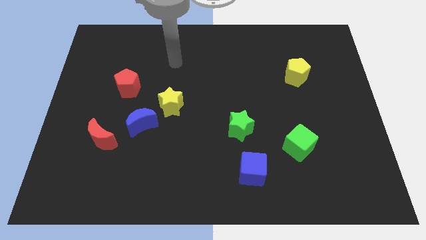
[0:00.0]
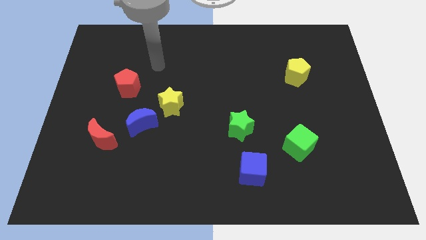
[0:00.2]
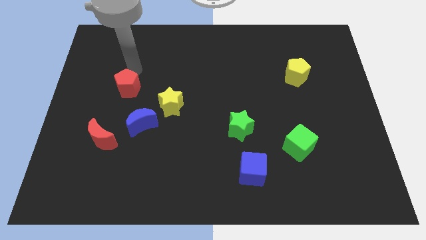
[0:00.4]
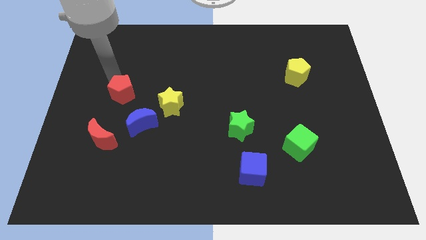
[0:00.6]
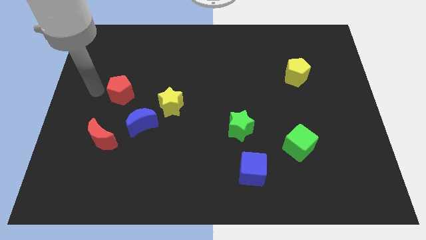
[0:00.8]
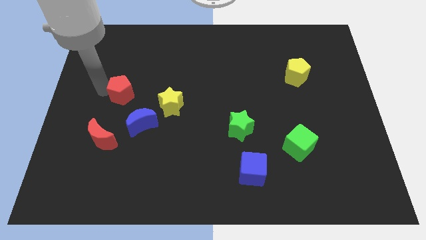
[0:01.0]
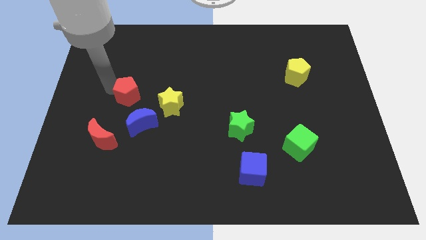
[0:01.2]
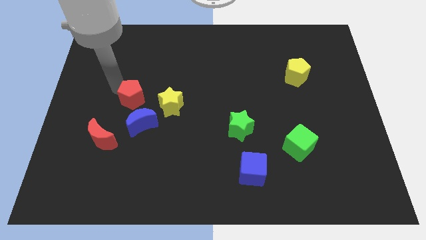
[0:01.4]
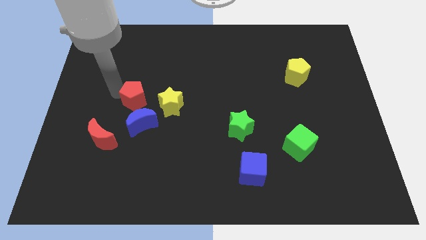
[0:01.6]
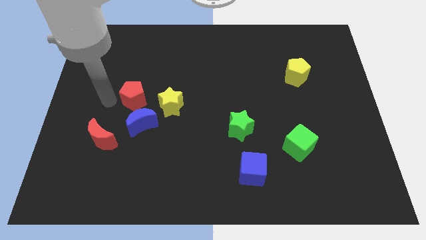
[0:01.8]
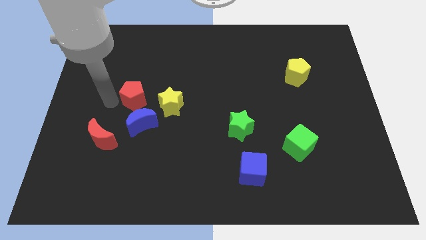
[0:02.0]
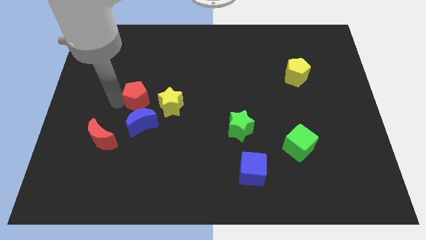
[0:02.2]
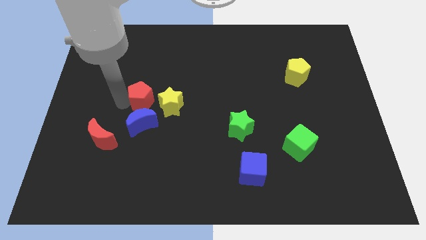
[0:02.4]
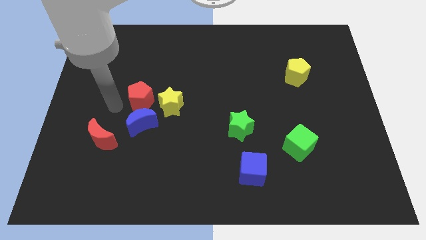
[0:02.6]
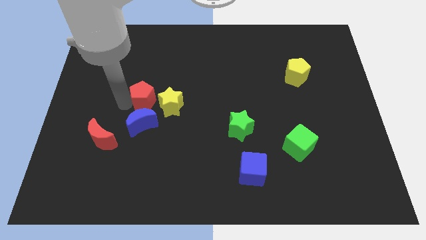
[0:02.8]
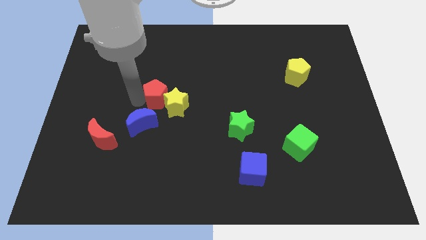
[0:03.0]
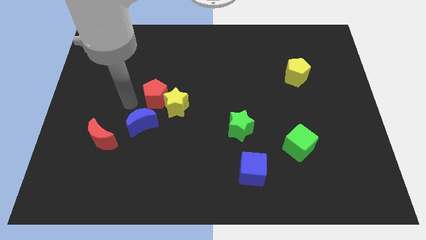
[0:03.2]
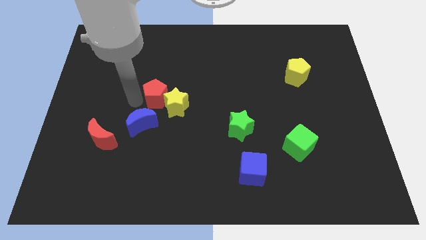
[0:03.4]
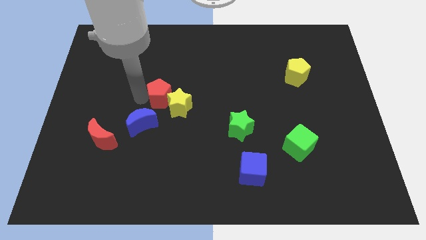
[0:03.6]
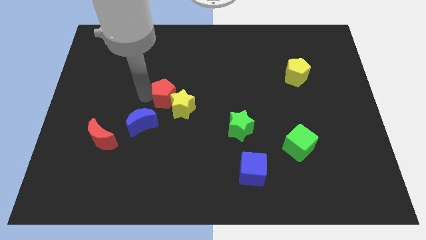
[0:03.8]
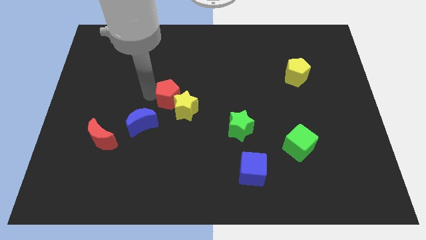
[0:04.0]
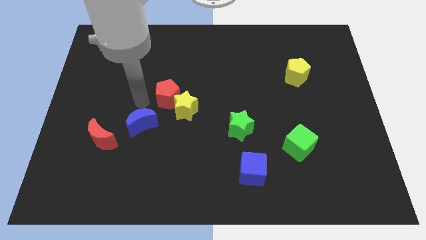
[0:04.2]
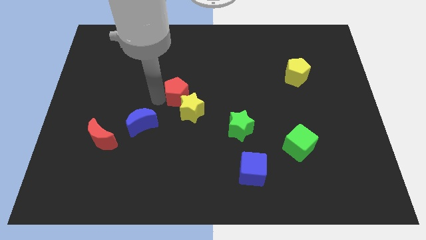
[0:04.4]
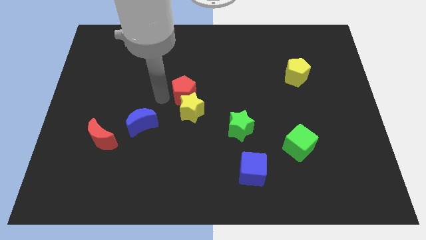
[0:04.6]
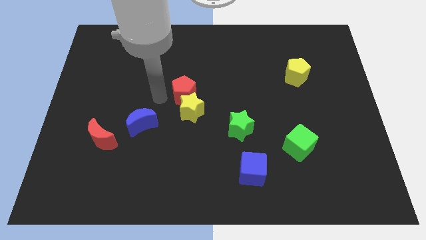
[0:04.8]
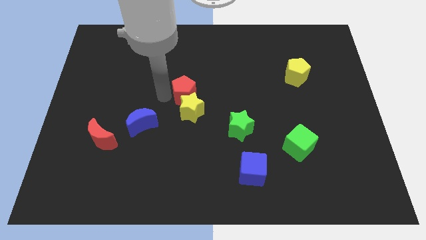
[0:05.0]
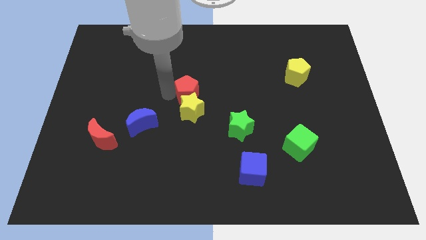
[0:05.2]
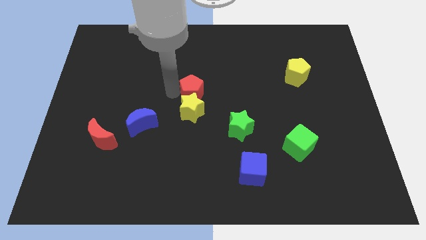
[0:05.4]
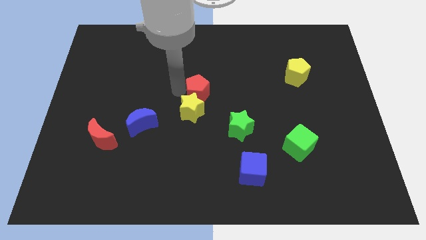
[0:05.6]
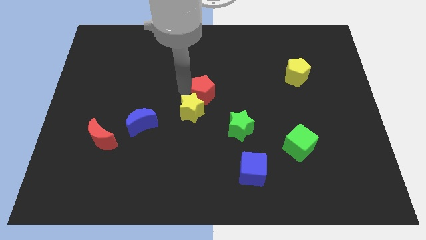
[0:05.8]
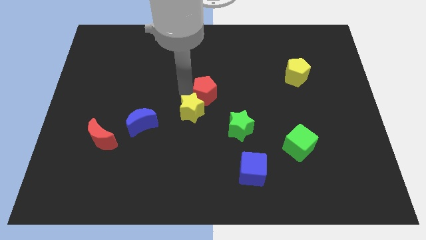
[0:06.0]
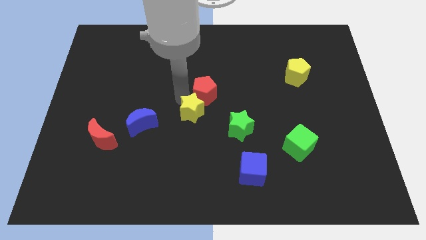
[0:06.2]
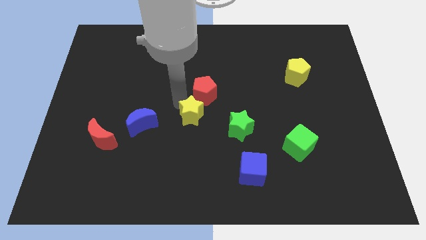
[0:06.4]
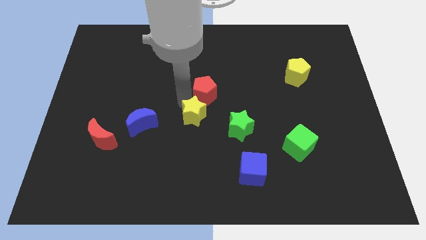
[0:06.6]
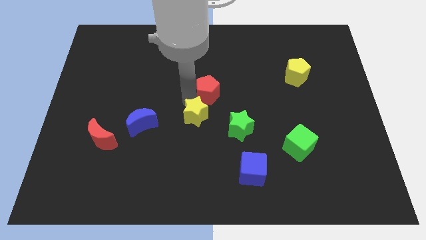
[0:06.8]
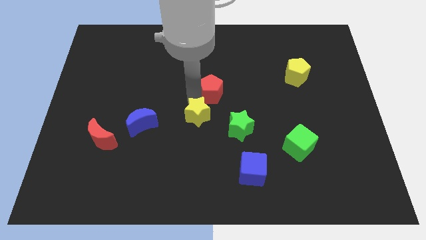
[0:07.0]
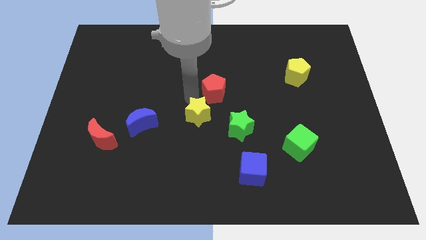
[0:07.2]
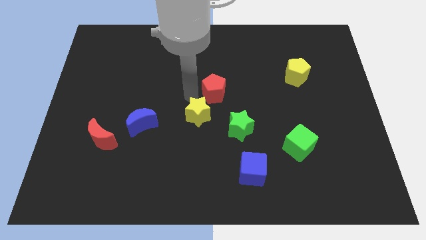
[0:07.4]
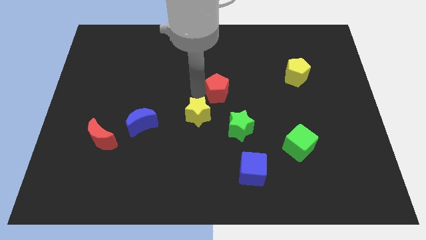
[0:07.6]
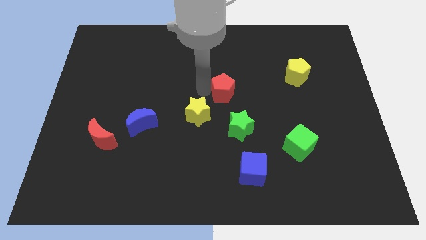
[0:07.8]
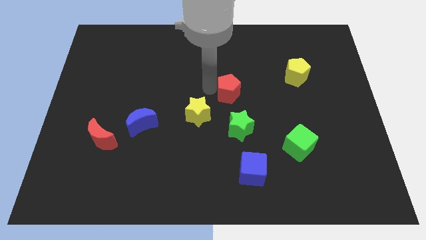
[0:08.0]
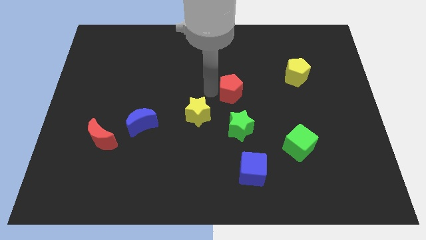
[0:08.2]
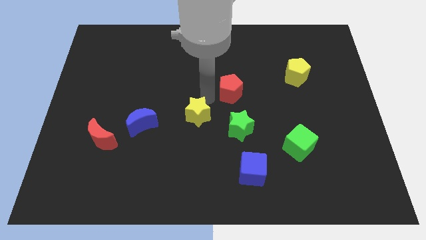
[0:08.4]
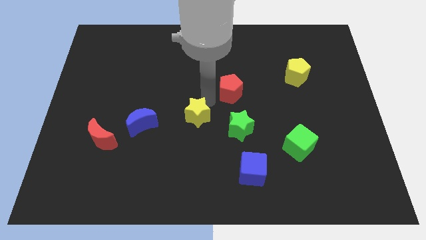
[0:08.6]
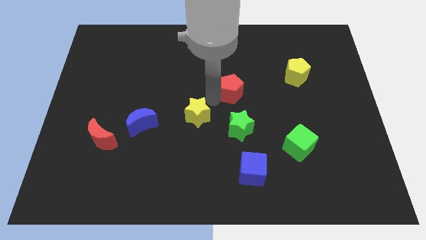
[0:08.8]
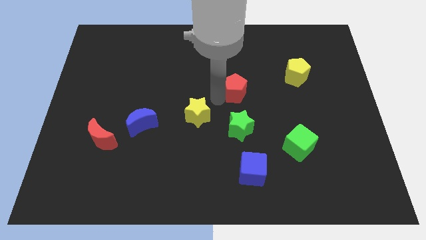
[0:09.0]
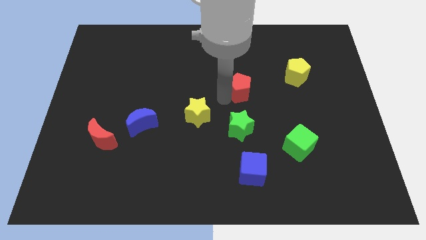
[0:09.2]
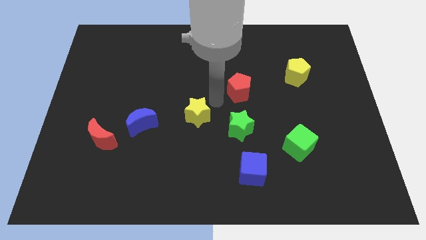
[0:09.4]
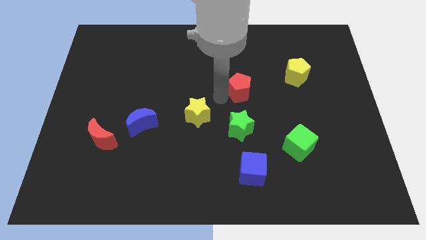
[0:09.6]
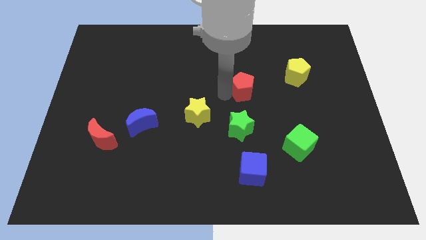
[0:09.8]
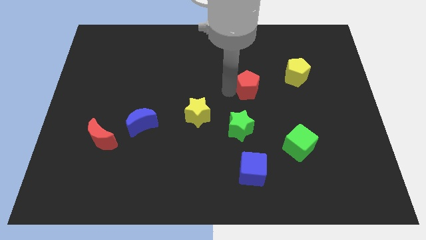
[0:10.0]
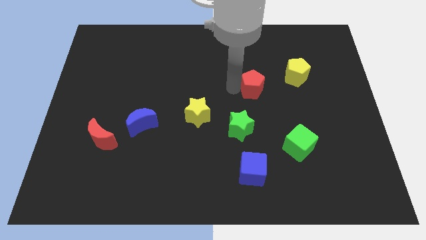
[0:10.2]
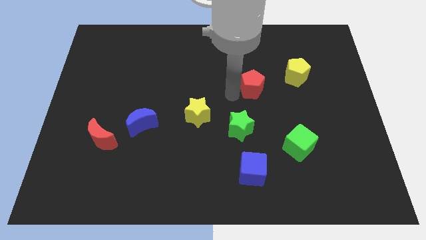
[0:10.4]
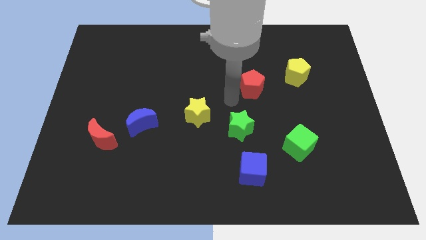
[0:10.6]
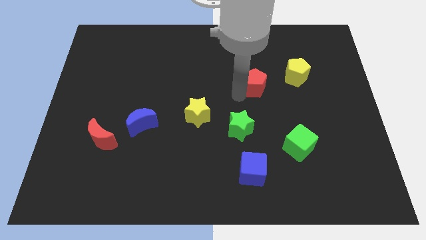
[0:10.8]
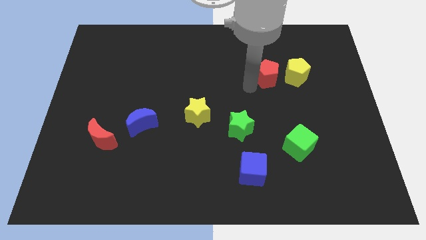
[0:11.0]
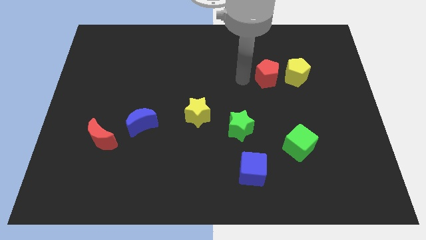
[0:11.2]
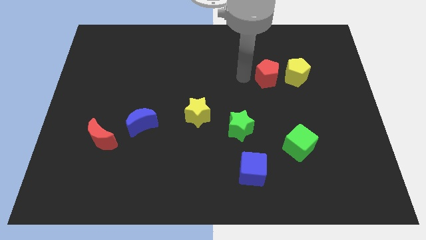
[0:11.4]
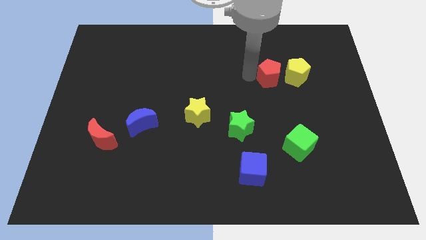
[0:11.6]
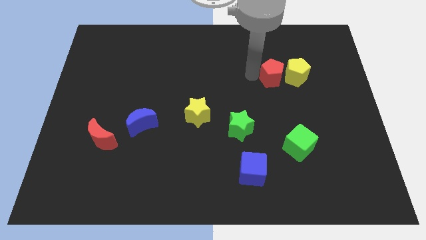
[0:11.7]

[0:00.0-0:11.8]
put the red pentagon close to the yellow pentagon

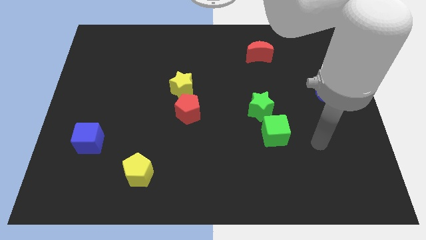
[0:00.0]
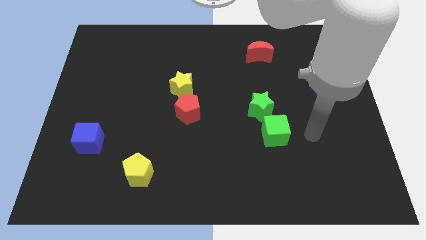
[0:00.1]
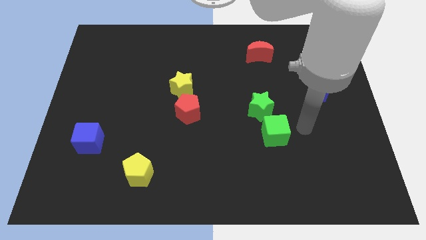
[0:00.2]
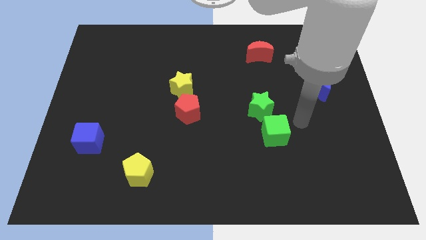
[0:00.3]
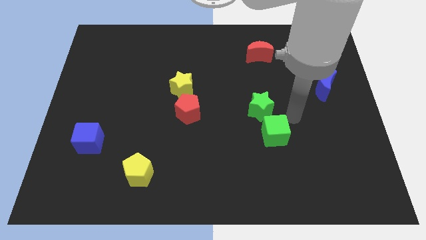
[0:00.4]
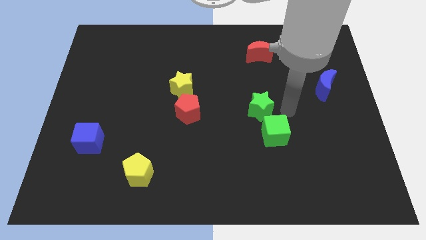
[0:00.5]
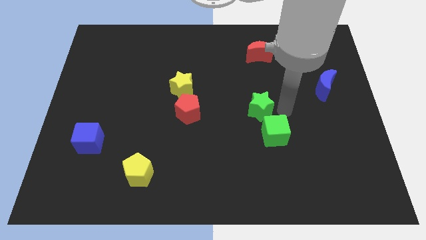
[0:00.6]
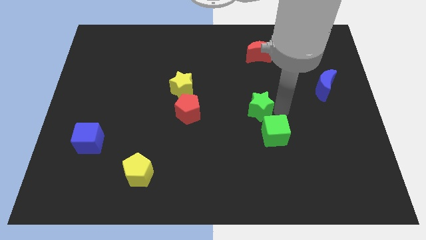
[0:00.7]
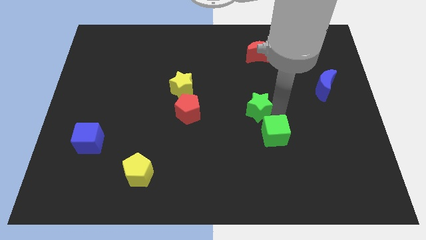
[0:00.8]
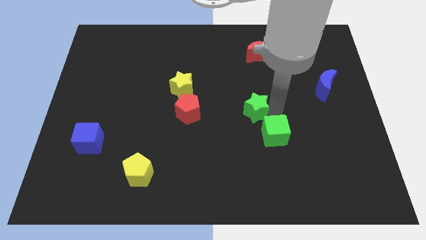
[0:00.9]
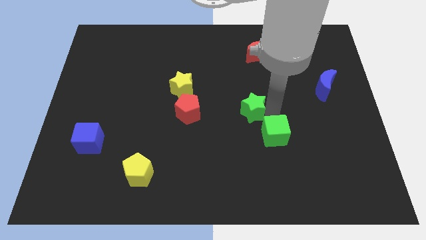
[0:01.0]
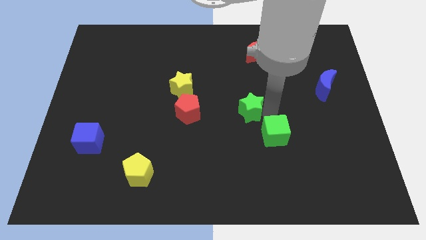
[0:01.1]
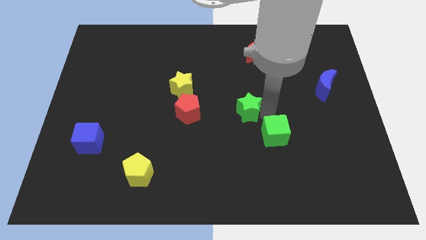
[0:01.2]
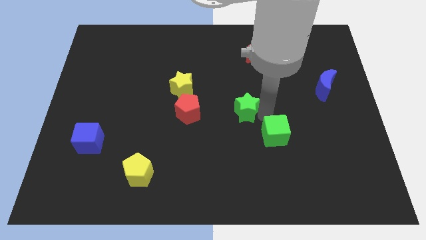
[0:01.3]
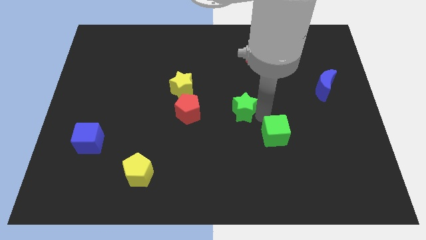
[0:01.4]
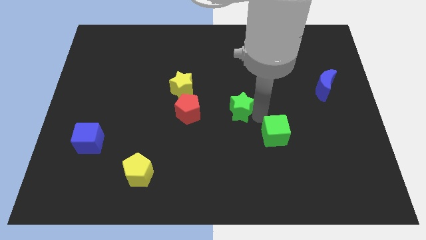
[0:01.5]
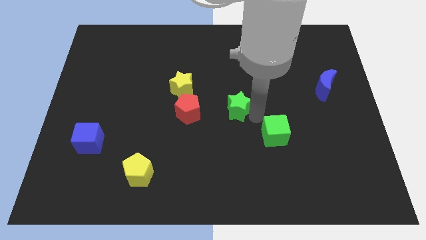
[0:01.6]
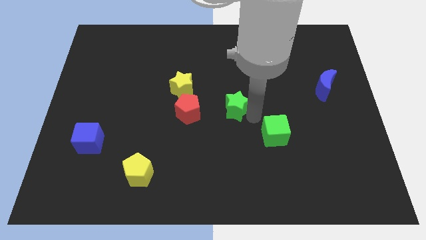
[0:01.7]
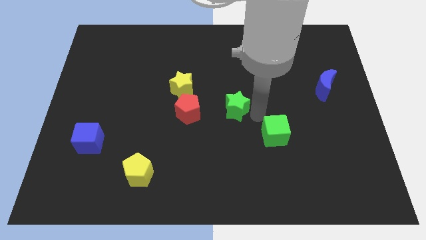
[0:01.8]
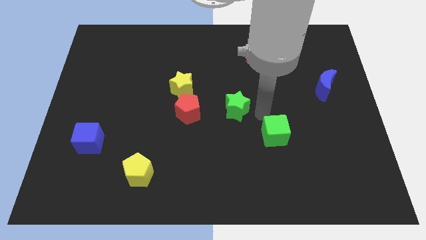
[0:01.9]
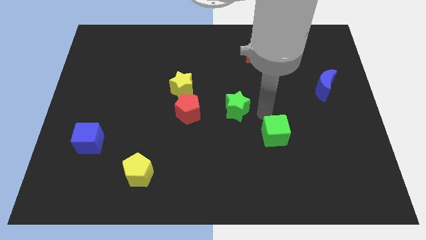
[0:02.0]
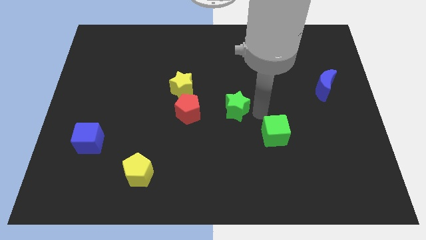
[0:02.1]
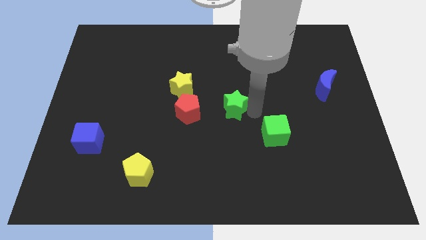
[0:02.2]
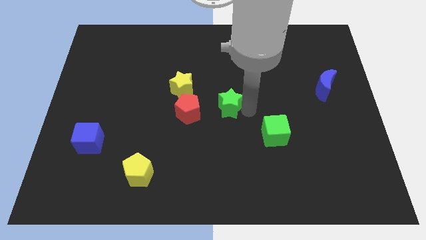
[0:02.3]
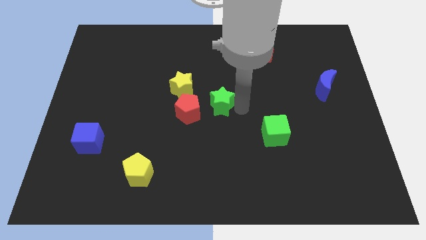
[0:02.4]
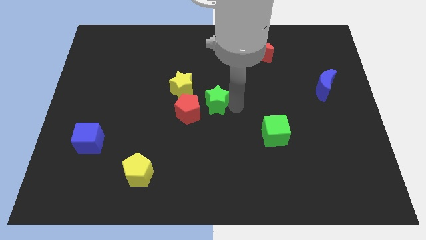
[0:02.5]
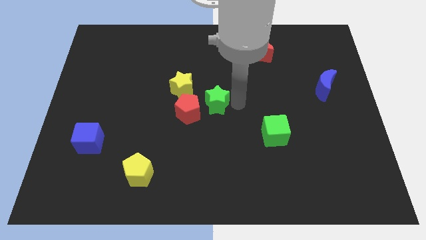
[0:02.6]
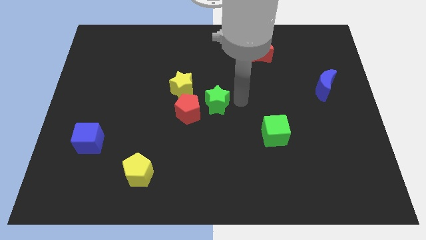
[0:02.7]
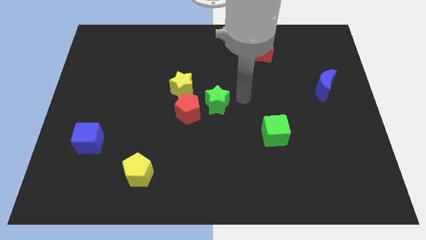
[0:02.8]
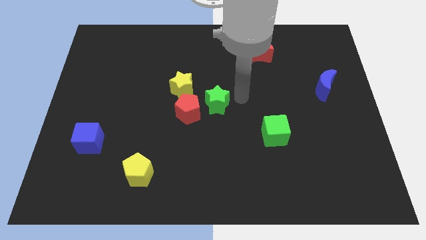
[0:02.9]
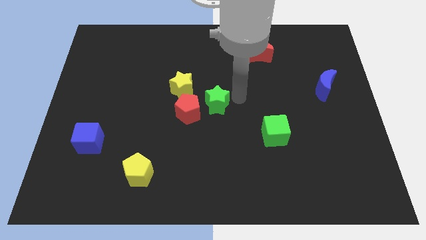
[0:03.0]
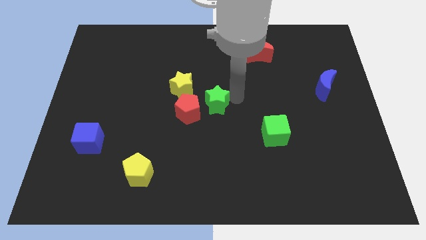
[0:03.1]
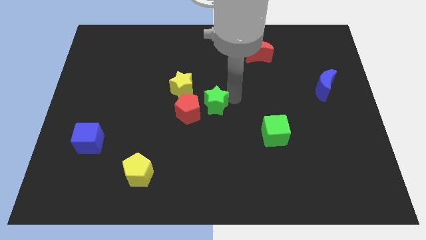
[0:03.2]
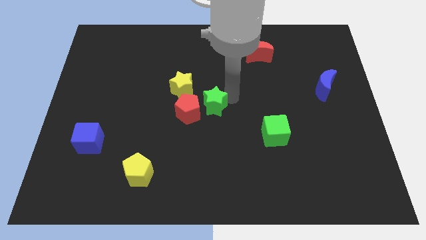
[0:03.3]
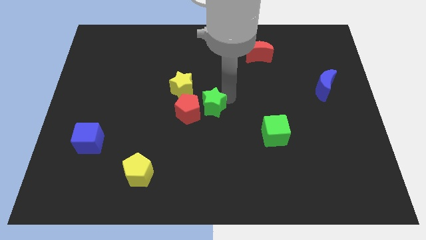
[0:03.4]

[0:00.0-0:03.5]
slide the green star to the red pentagon
